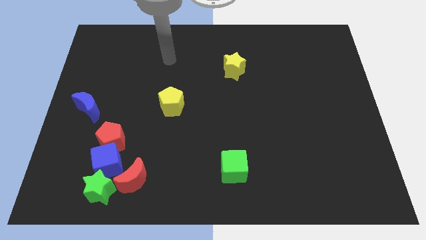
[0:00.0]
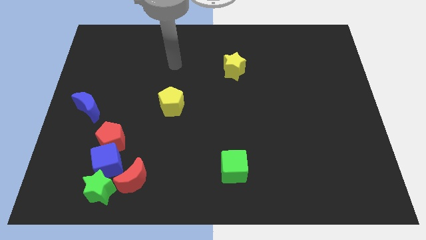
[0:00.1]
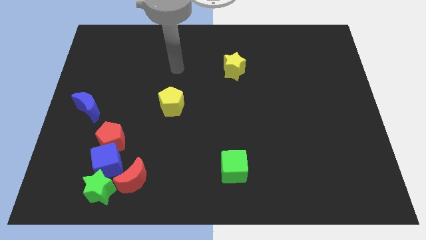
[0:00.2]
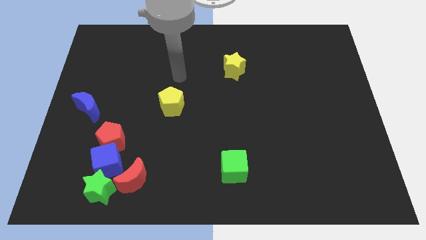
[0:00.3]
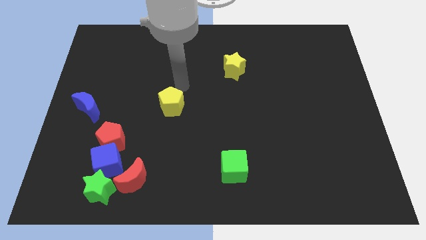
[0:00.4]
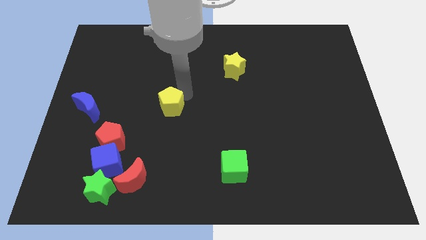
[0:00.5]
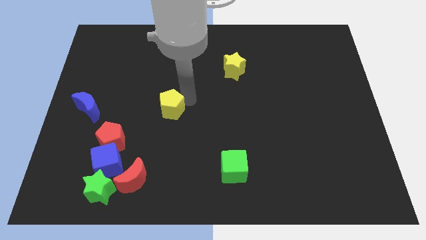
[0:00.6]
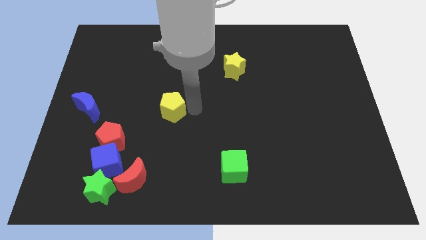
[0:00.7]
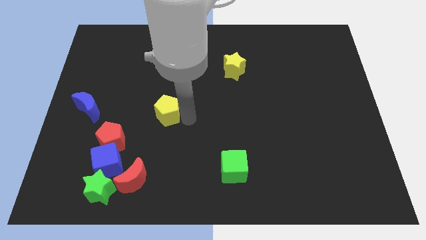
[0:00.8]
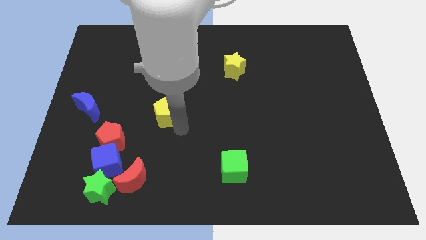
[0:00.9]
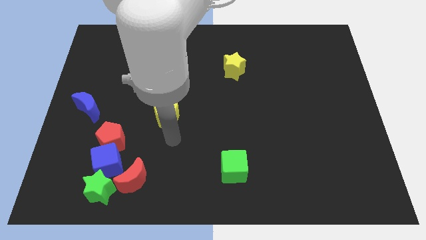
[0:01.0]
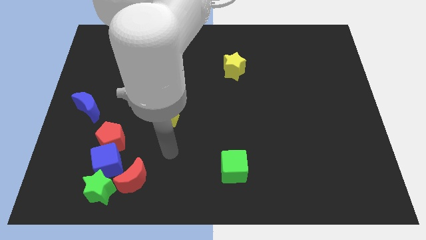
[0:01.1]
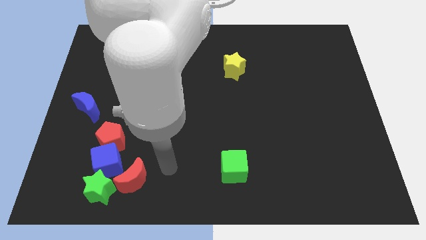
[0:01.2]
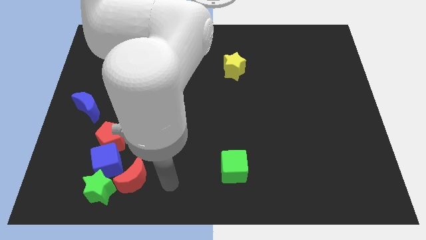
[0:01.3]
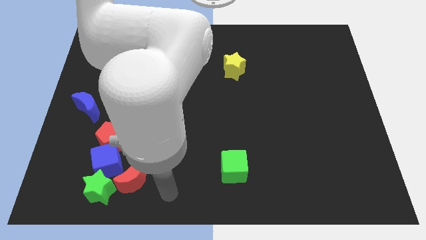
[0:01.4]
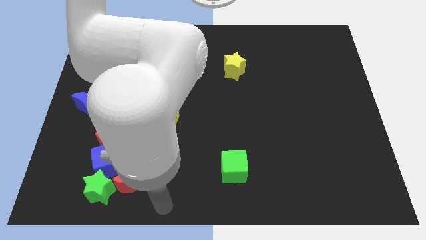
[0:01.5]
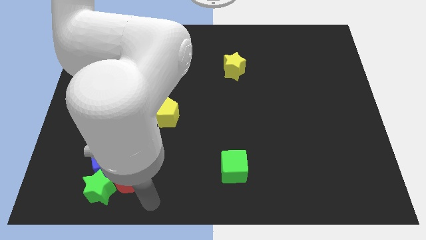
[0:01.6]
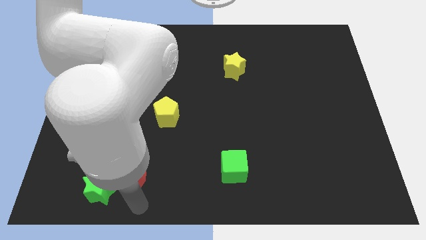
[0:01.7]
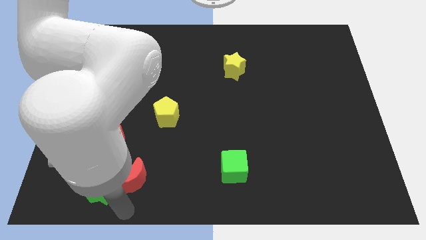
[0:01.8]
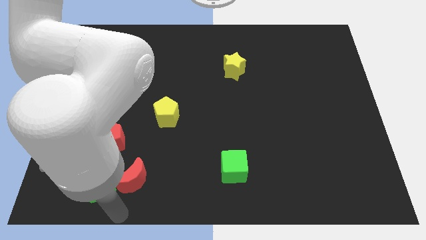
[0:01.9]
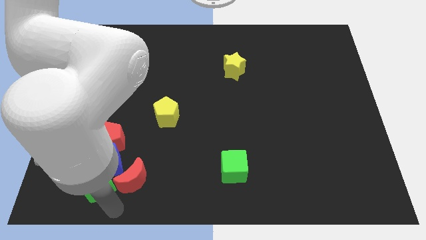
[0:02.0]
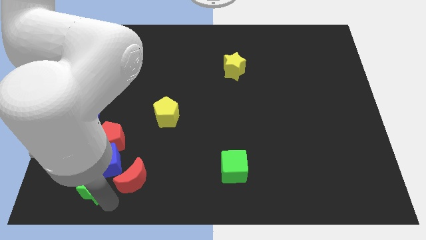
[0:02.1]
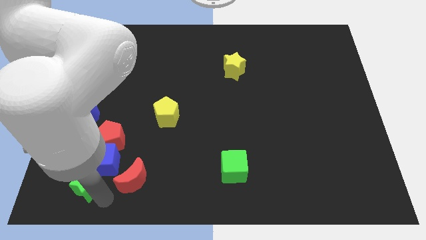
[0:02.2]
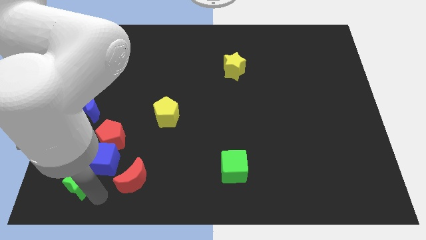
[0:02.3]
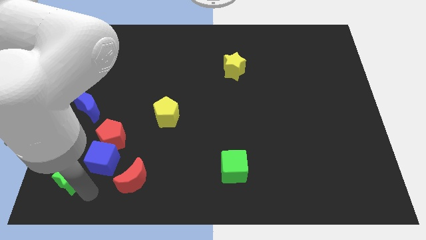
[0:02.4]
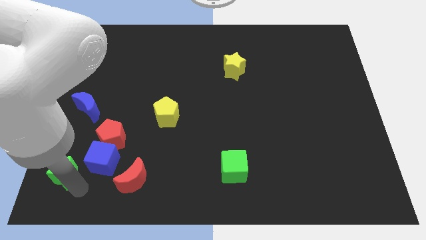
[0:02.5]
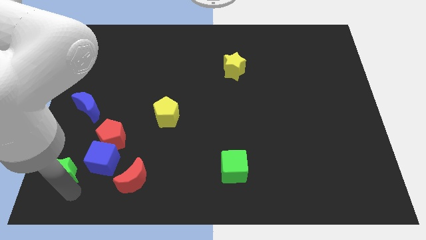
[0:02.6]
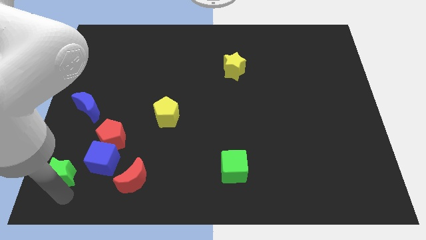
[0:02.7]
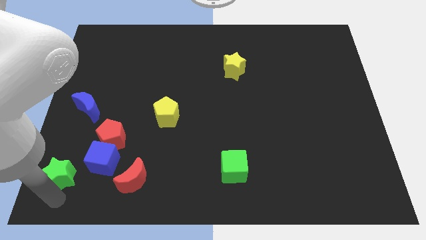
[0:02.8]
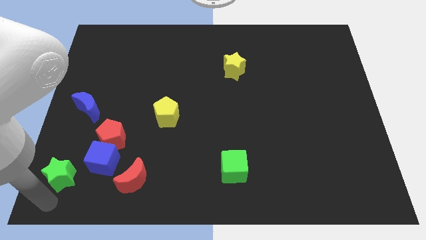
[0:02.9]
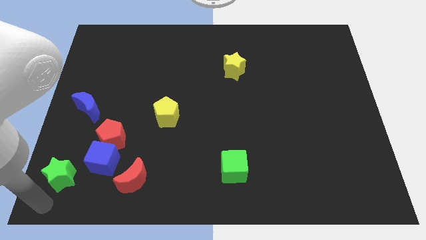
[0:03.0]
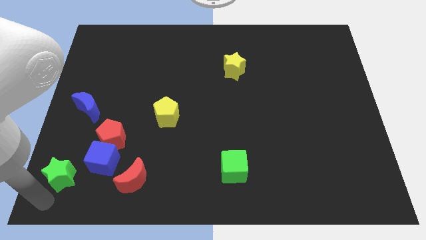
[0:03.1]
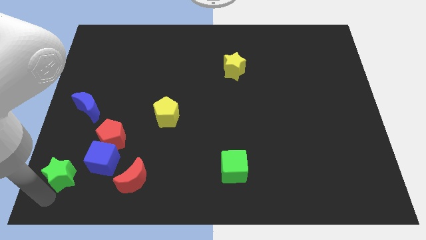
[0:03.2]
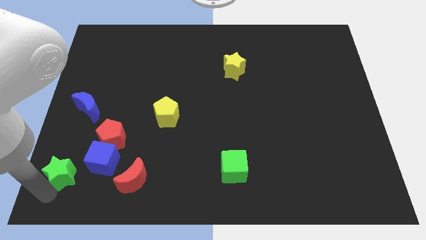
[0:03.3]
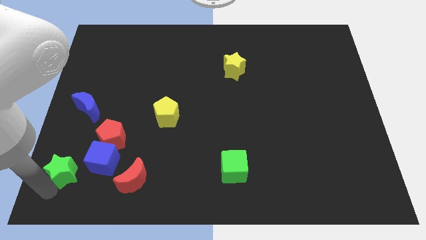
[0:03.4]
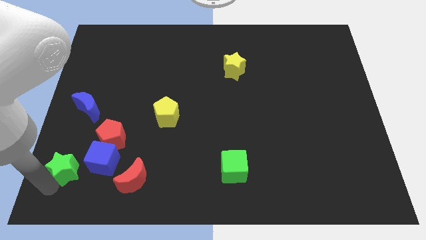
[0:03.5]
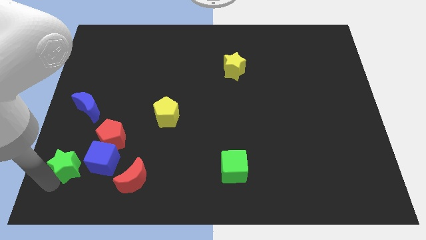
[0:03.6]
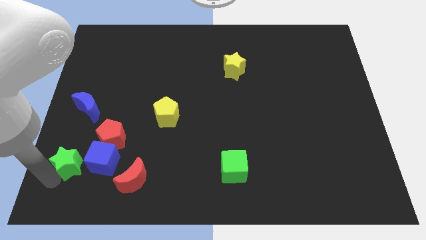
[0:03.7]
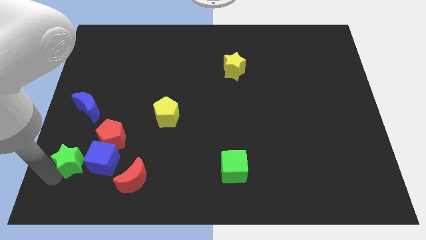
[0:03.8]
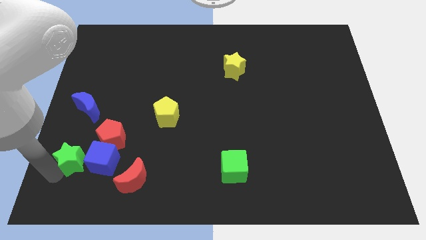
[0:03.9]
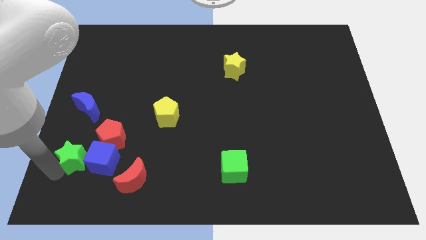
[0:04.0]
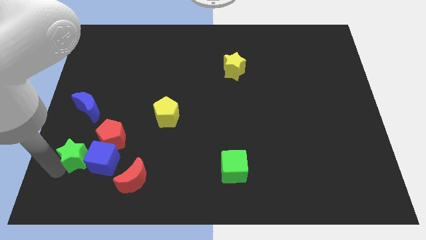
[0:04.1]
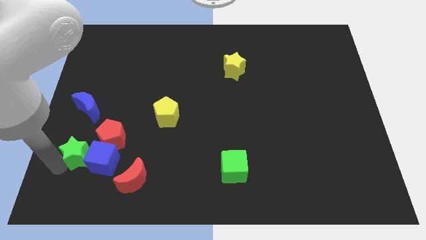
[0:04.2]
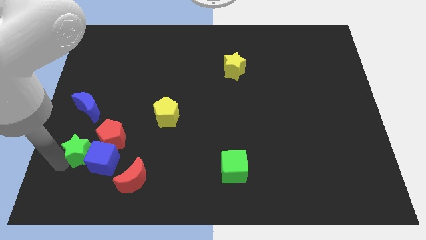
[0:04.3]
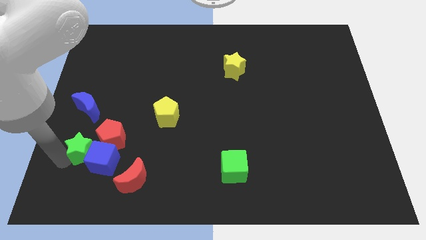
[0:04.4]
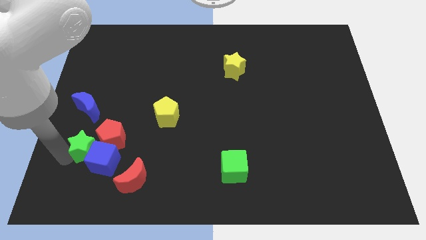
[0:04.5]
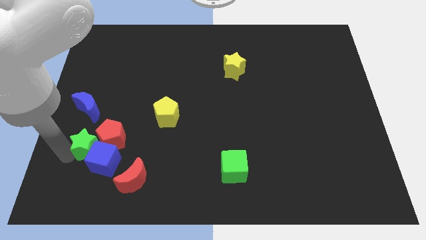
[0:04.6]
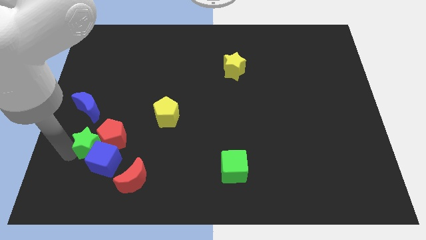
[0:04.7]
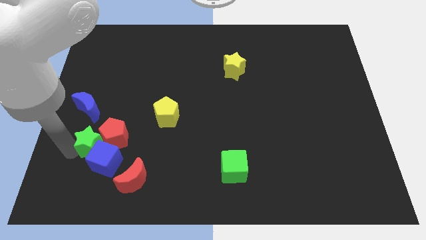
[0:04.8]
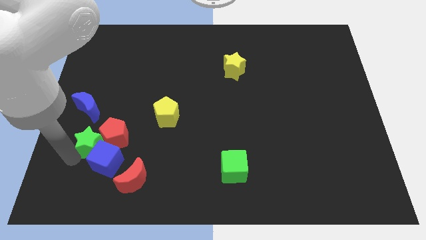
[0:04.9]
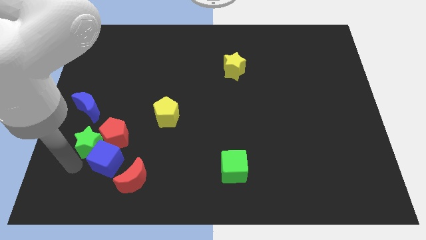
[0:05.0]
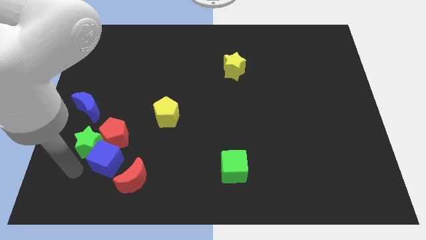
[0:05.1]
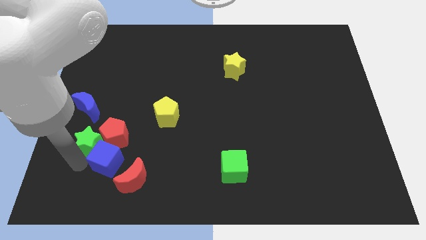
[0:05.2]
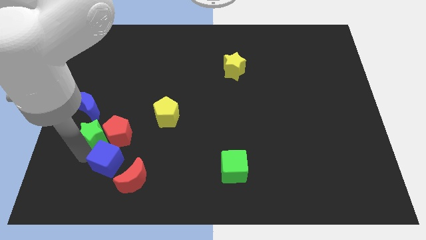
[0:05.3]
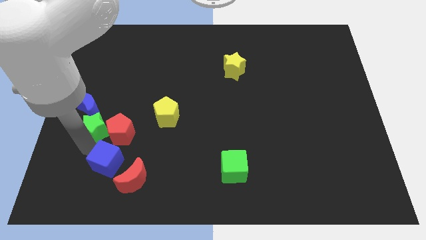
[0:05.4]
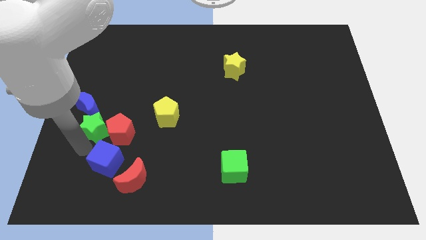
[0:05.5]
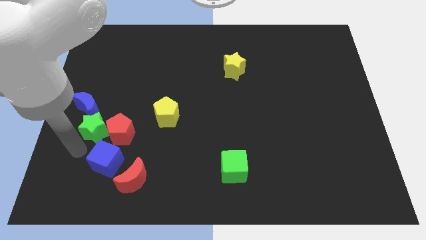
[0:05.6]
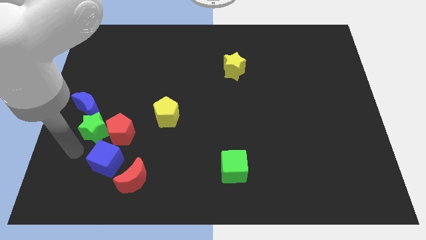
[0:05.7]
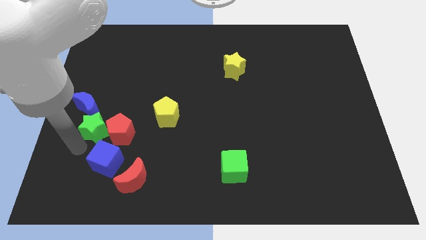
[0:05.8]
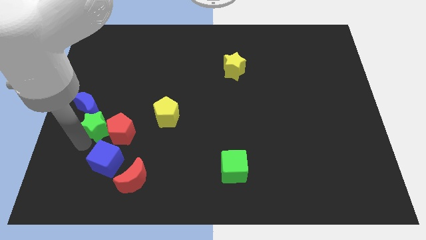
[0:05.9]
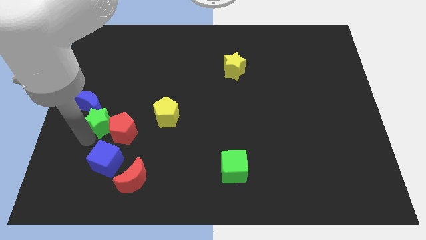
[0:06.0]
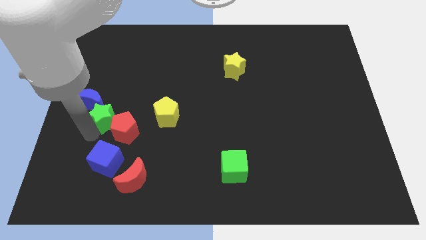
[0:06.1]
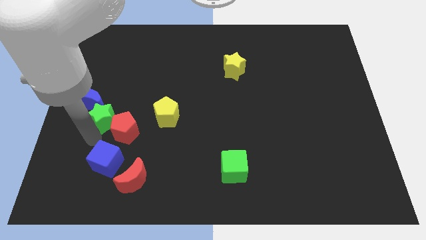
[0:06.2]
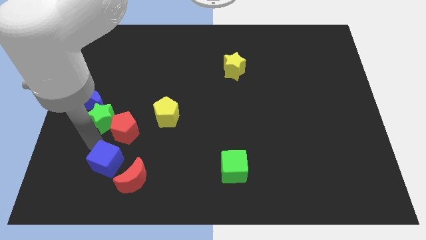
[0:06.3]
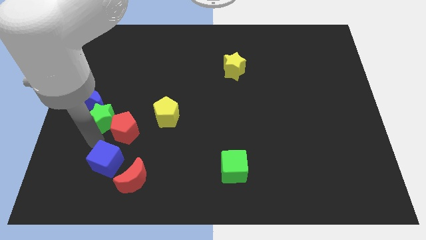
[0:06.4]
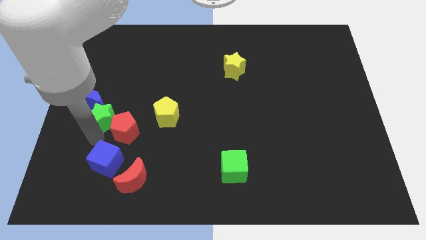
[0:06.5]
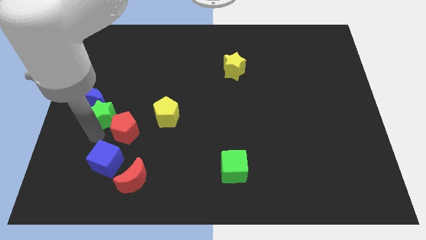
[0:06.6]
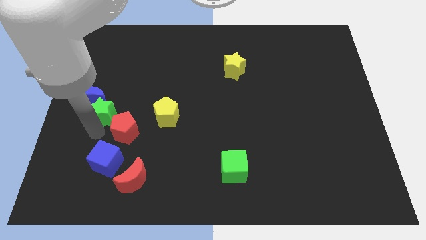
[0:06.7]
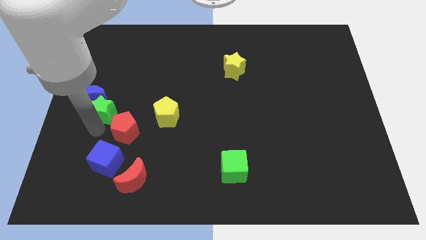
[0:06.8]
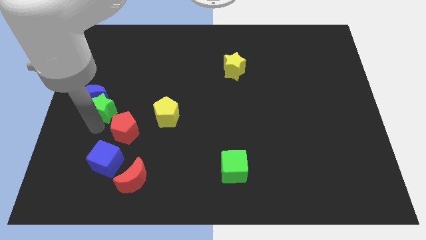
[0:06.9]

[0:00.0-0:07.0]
push the green star upwards

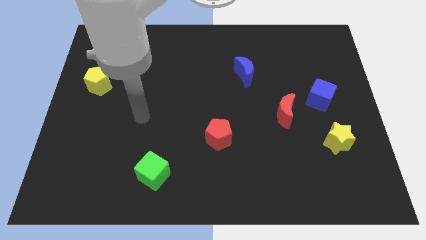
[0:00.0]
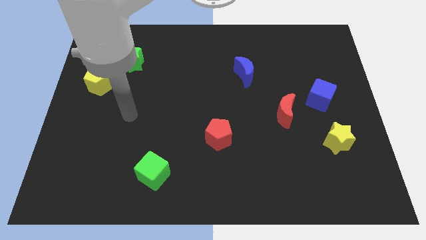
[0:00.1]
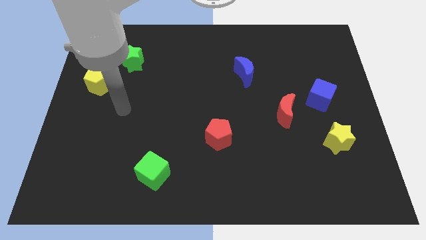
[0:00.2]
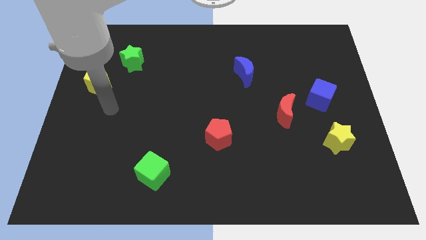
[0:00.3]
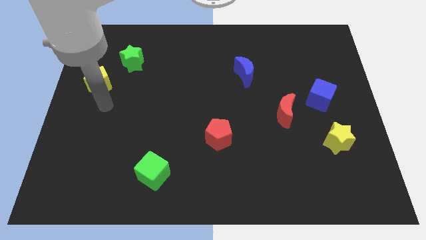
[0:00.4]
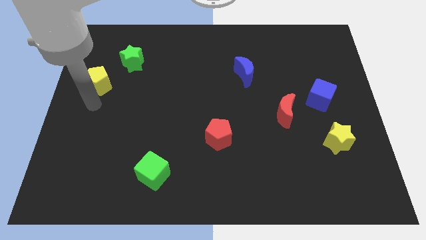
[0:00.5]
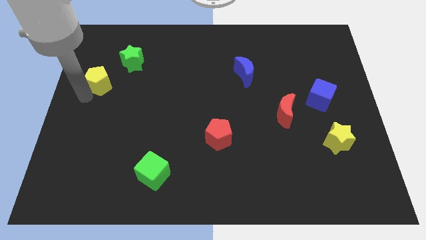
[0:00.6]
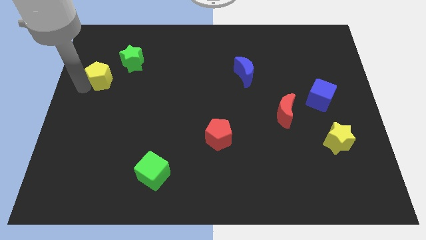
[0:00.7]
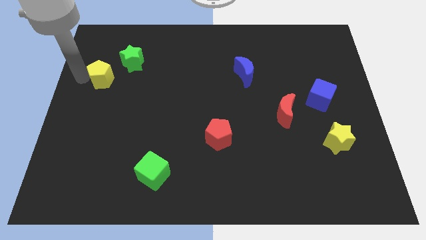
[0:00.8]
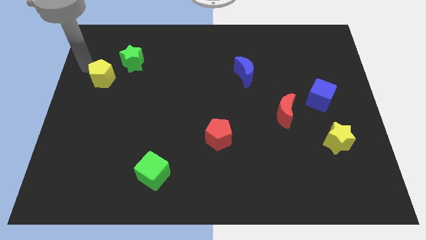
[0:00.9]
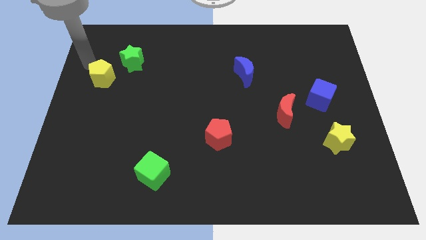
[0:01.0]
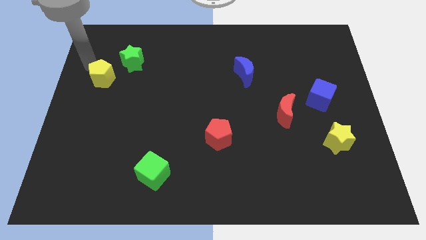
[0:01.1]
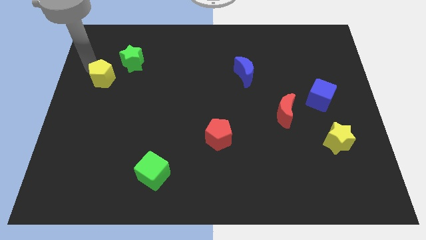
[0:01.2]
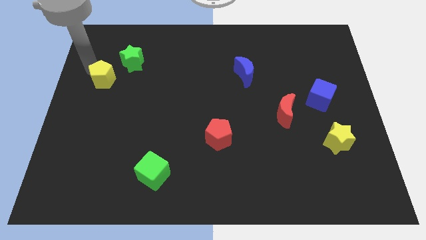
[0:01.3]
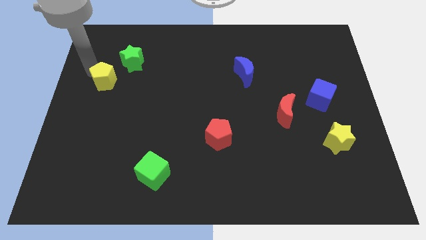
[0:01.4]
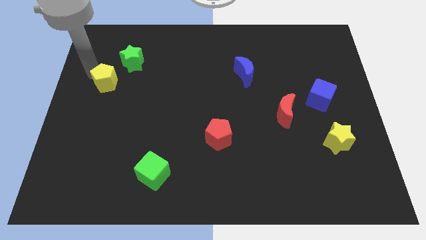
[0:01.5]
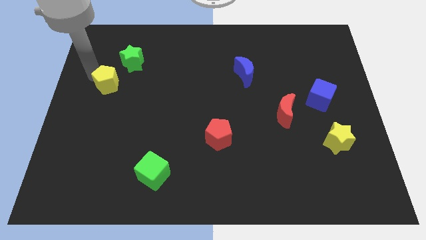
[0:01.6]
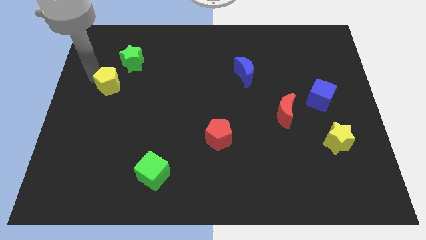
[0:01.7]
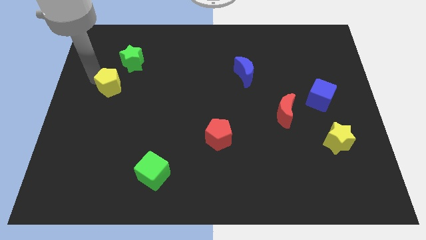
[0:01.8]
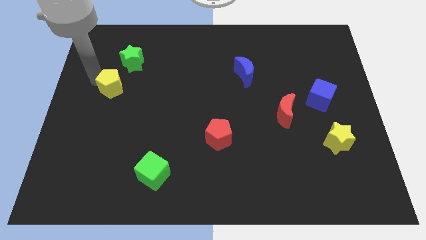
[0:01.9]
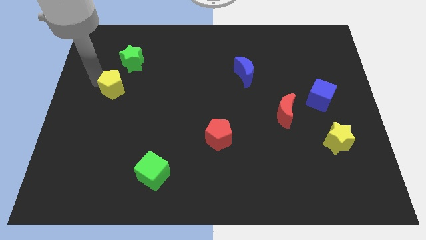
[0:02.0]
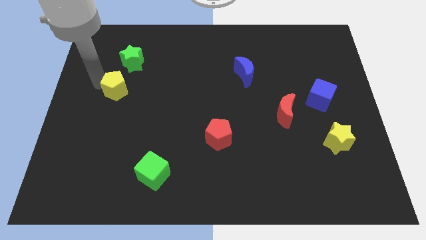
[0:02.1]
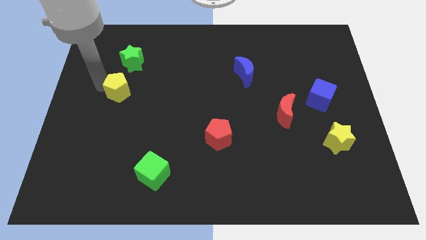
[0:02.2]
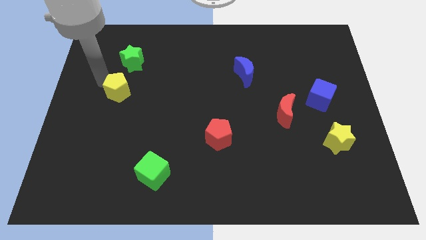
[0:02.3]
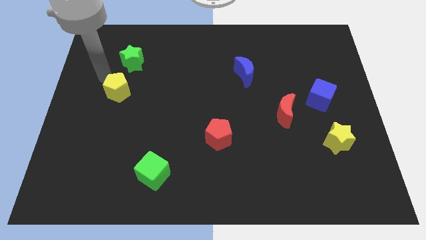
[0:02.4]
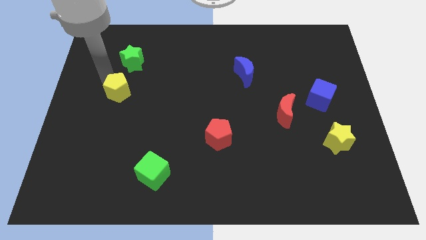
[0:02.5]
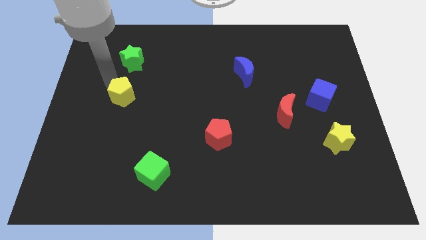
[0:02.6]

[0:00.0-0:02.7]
slide the yellow pentagon downwards and to the right slightly
